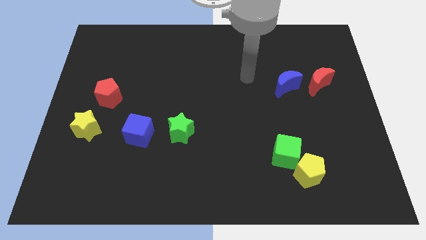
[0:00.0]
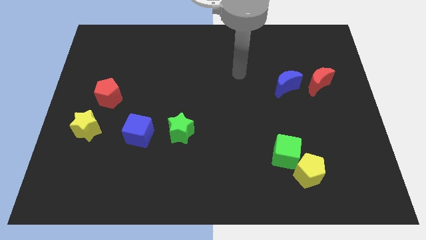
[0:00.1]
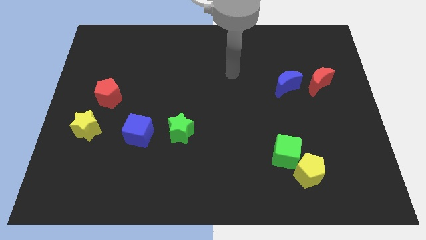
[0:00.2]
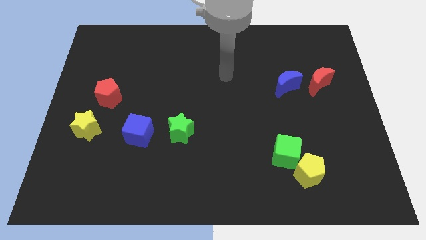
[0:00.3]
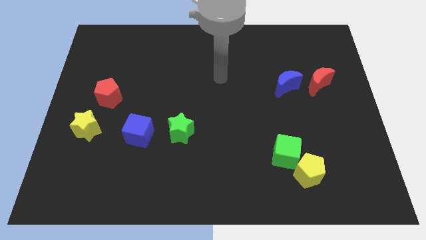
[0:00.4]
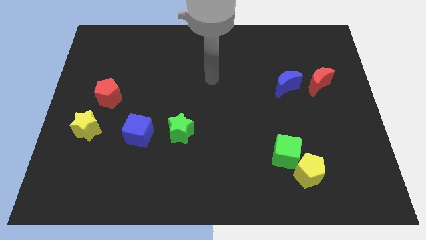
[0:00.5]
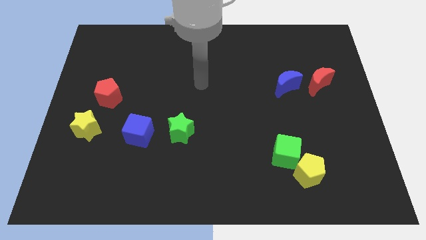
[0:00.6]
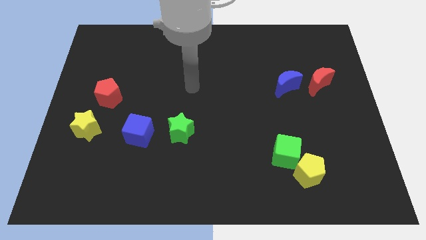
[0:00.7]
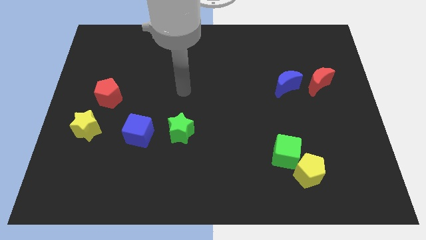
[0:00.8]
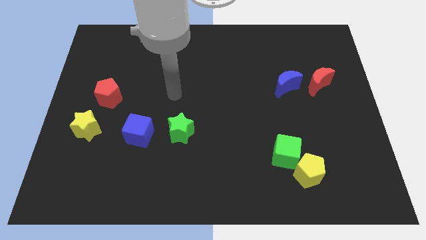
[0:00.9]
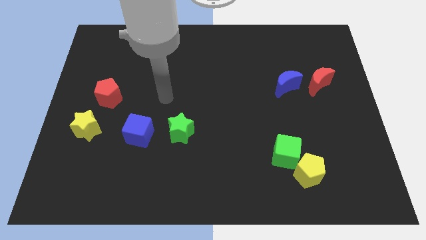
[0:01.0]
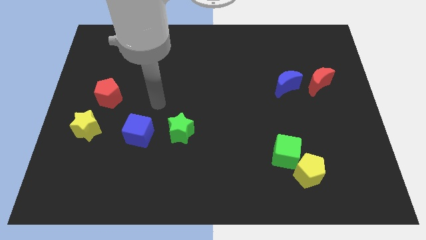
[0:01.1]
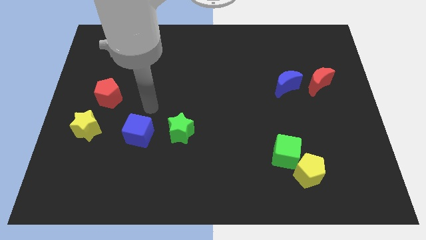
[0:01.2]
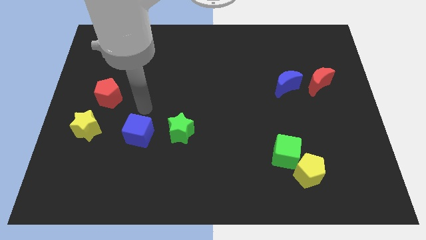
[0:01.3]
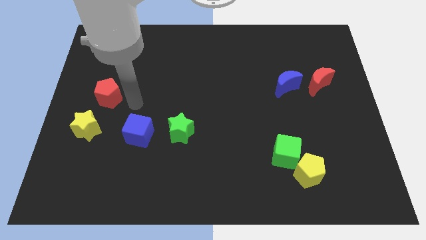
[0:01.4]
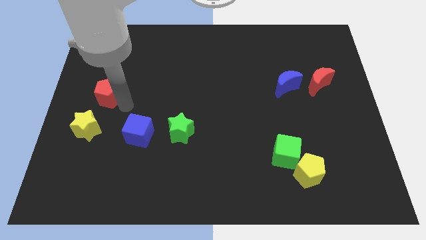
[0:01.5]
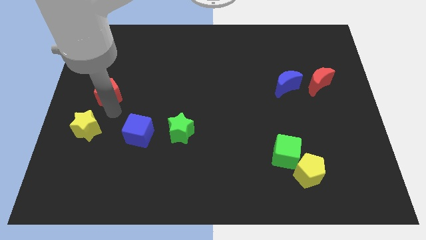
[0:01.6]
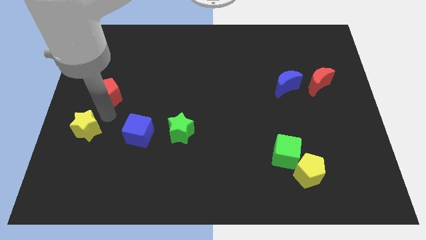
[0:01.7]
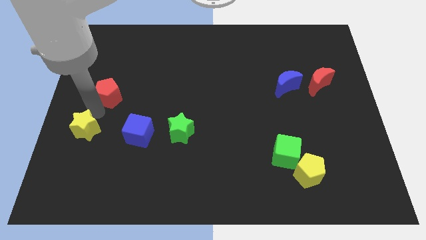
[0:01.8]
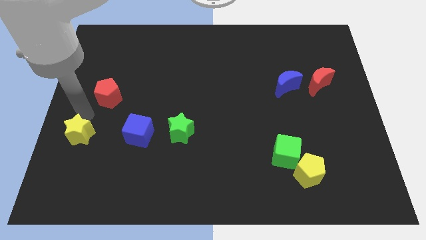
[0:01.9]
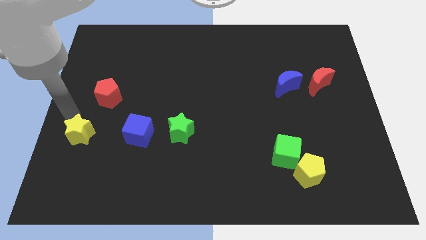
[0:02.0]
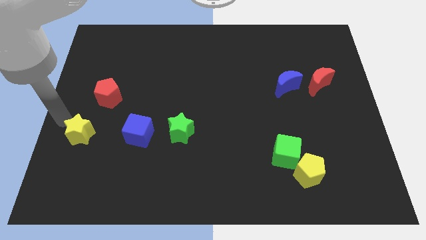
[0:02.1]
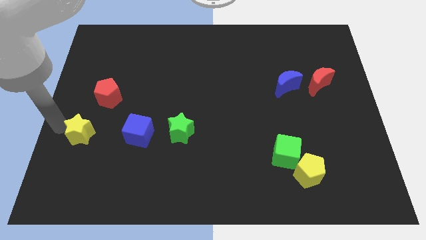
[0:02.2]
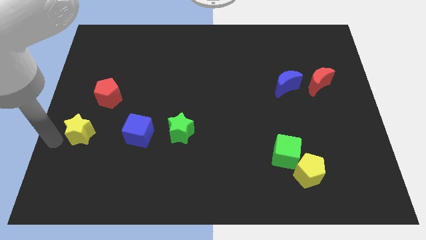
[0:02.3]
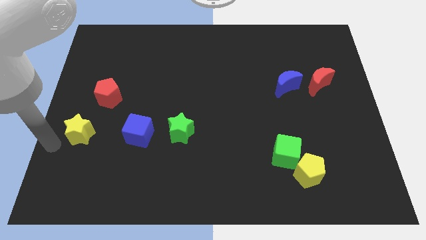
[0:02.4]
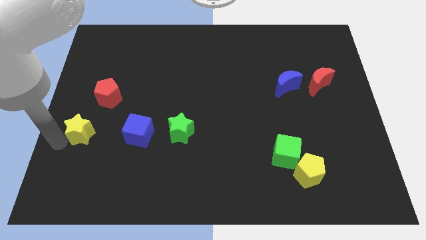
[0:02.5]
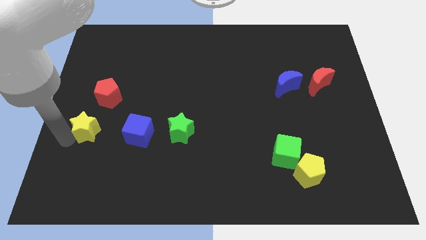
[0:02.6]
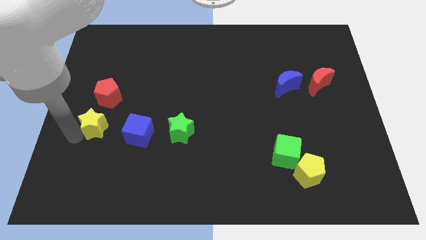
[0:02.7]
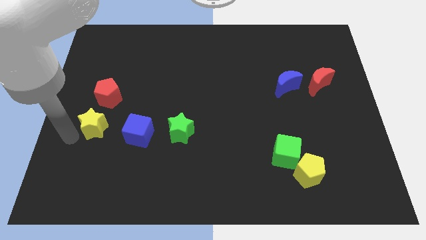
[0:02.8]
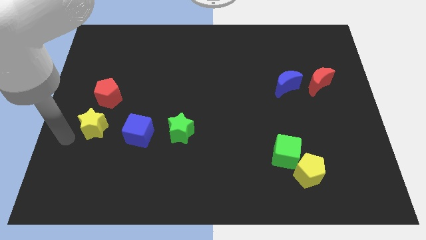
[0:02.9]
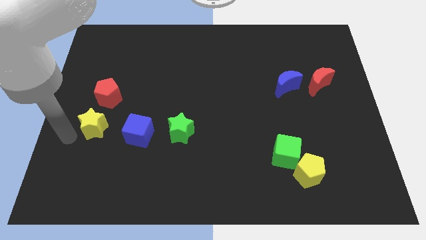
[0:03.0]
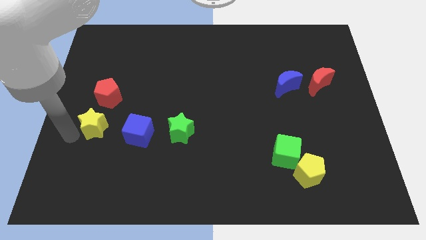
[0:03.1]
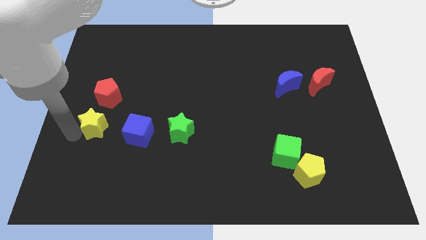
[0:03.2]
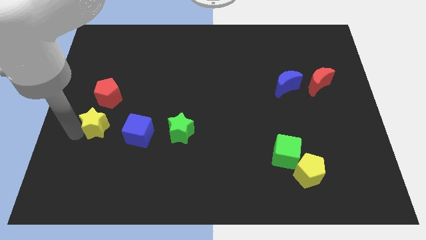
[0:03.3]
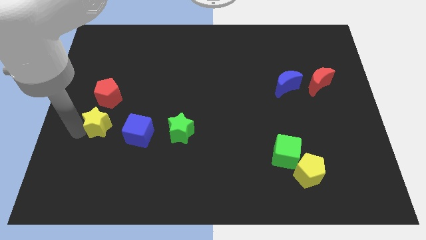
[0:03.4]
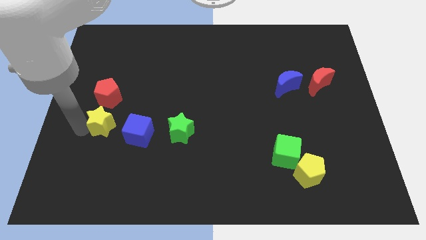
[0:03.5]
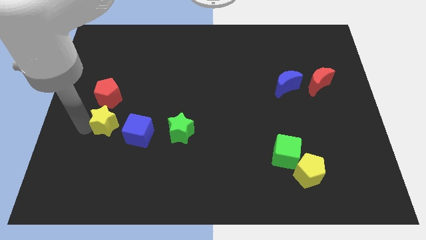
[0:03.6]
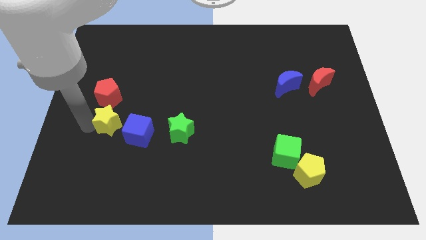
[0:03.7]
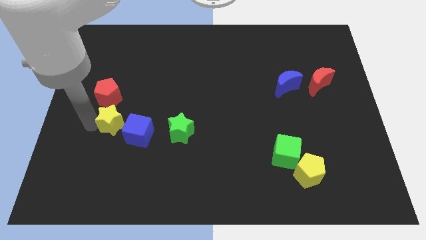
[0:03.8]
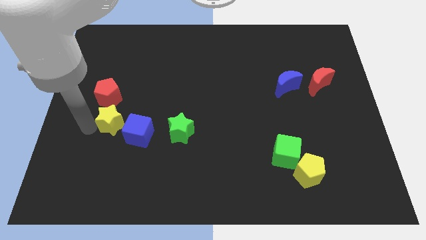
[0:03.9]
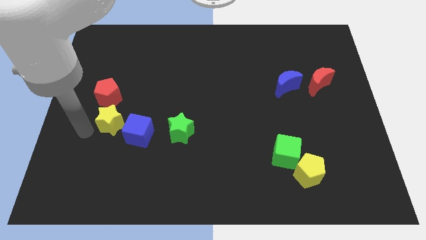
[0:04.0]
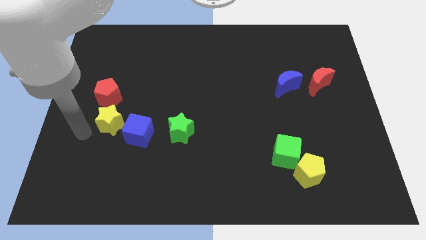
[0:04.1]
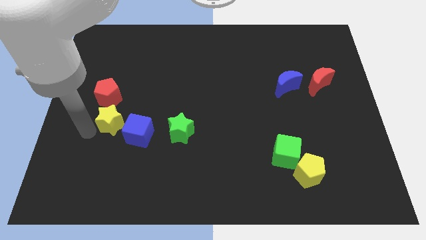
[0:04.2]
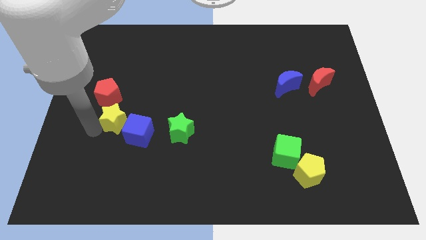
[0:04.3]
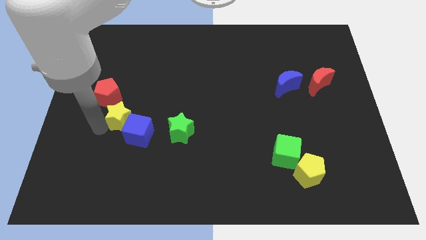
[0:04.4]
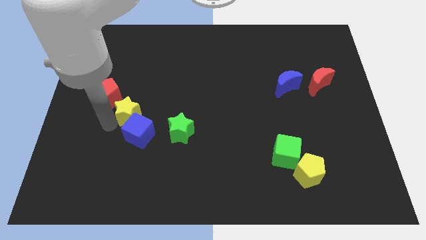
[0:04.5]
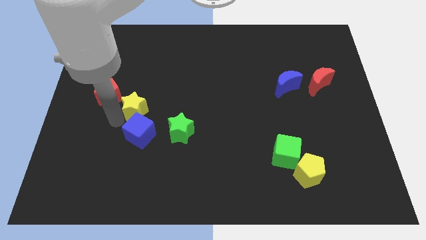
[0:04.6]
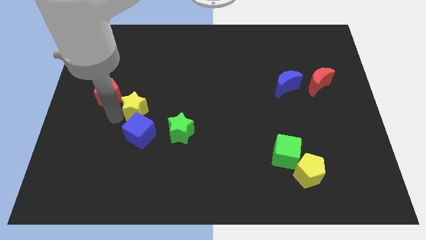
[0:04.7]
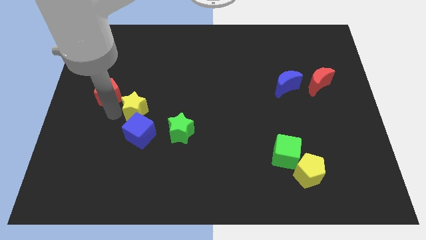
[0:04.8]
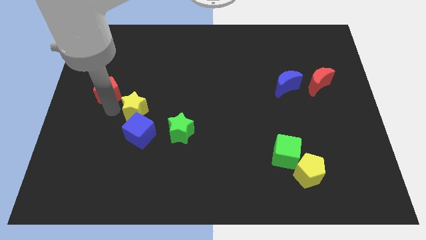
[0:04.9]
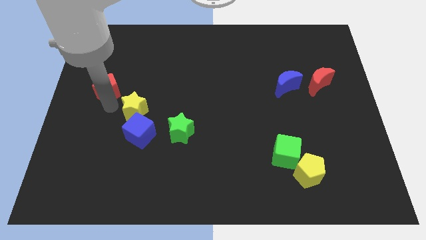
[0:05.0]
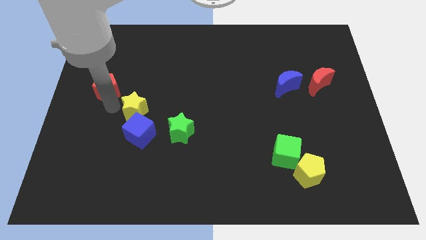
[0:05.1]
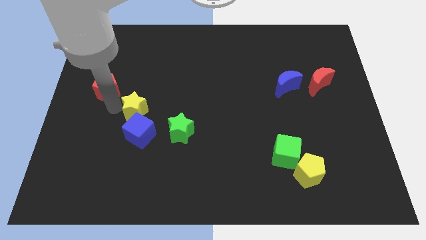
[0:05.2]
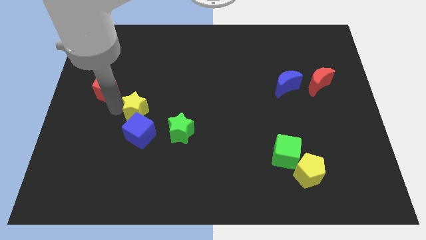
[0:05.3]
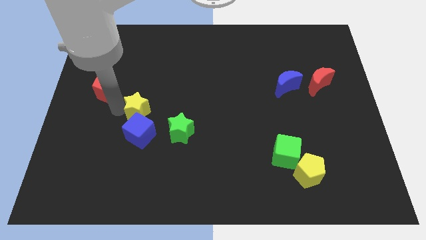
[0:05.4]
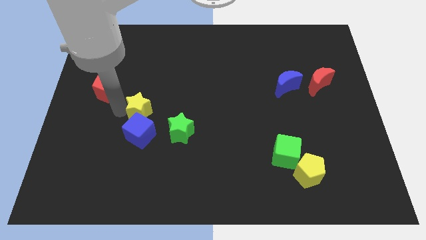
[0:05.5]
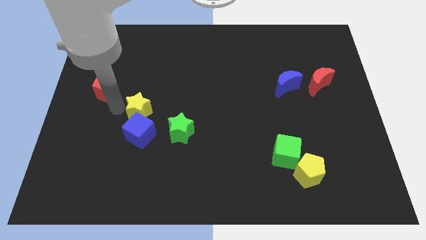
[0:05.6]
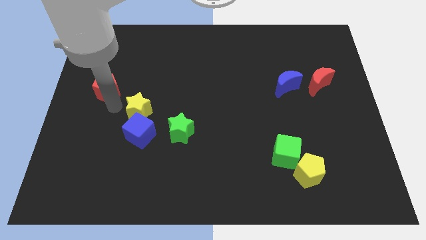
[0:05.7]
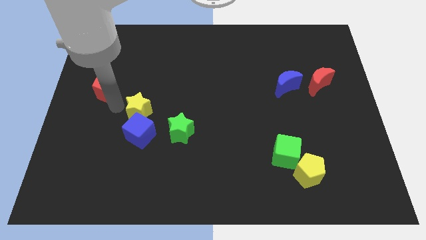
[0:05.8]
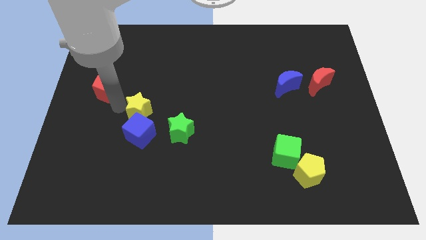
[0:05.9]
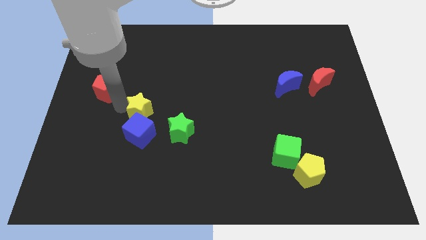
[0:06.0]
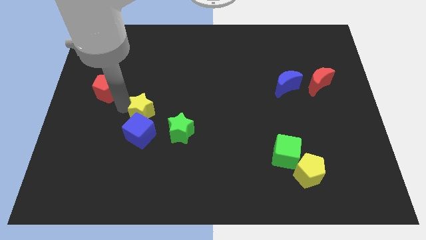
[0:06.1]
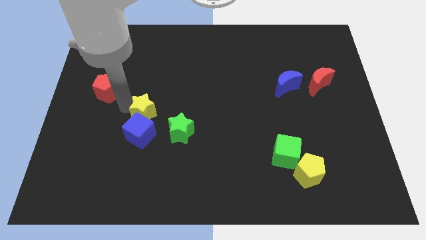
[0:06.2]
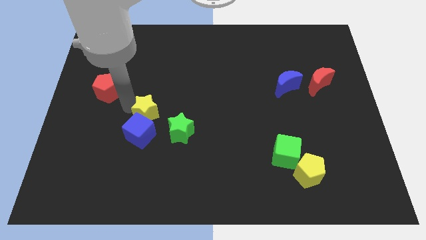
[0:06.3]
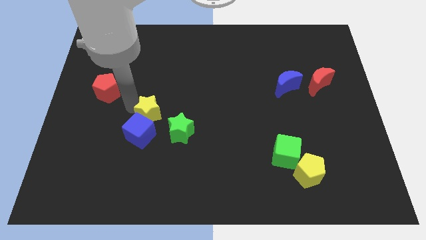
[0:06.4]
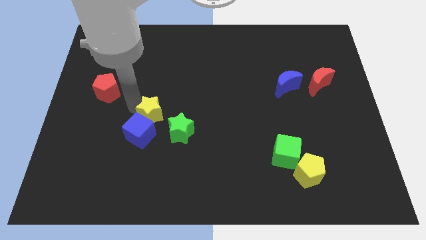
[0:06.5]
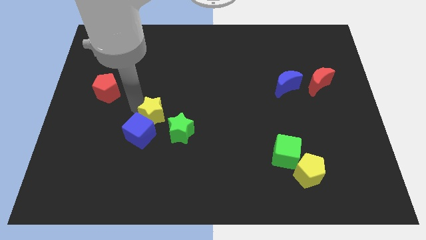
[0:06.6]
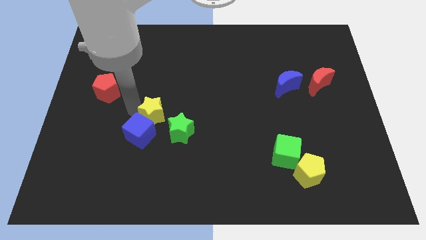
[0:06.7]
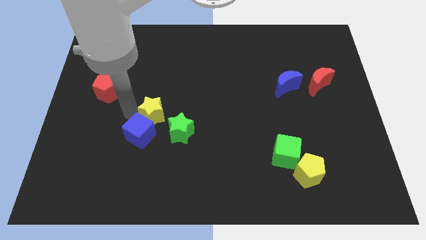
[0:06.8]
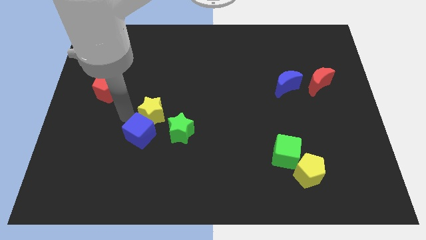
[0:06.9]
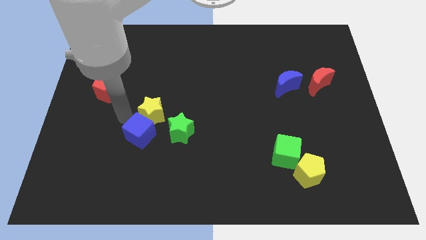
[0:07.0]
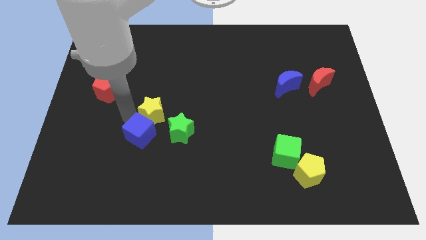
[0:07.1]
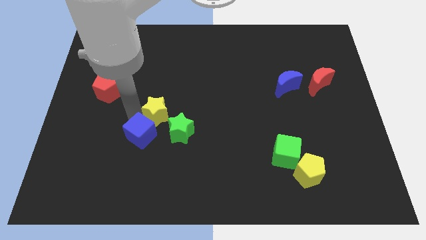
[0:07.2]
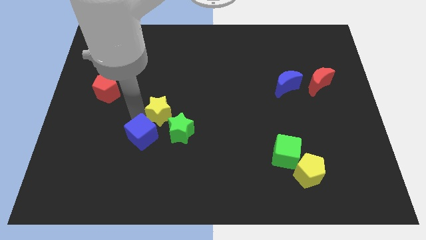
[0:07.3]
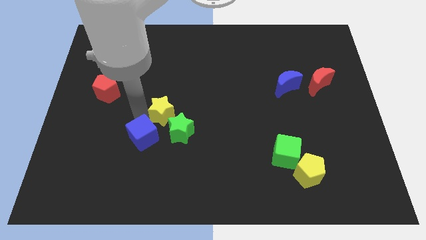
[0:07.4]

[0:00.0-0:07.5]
move the yellow star to the middle of the board
